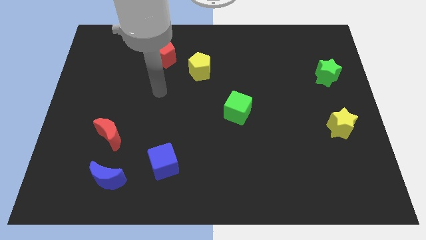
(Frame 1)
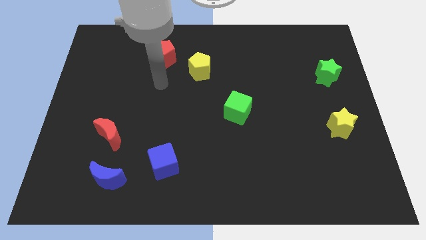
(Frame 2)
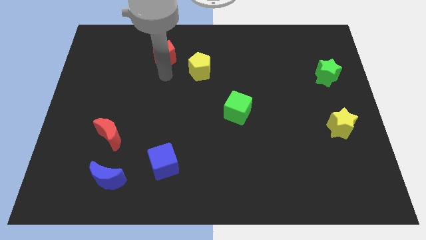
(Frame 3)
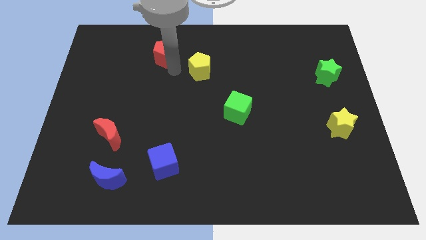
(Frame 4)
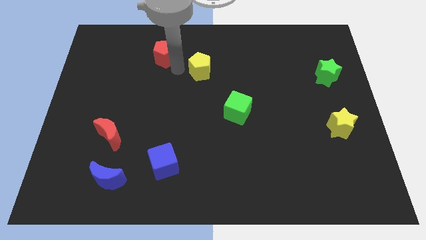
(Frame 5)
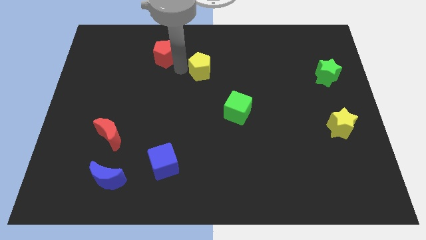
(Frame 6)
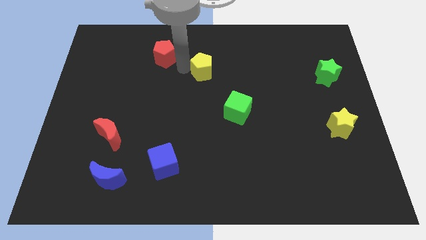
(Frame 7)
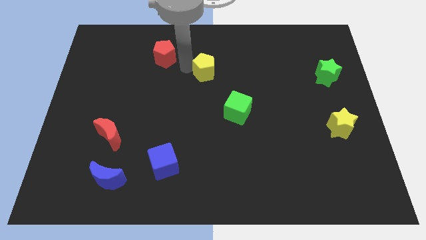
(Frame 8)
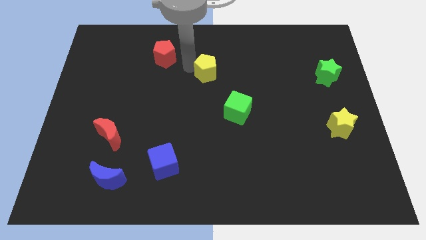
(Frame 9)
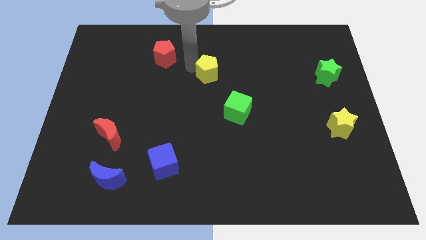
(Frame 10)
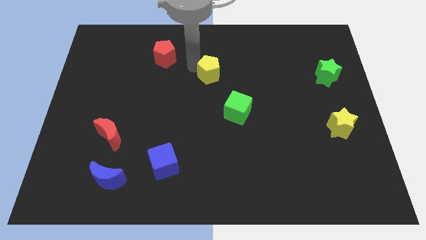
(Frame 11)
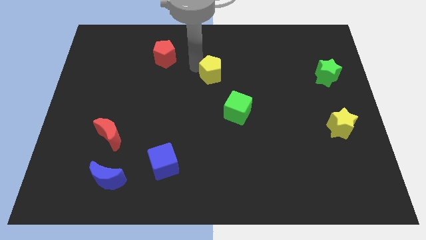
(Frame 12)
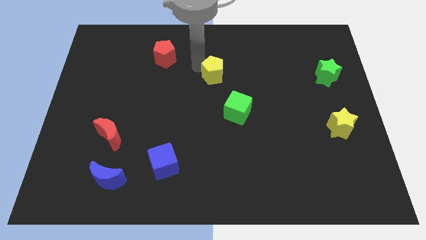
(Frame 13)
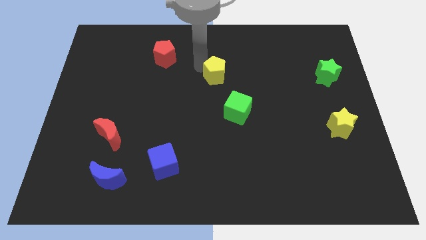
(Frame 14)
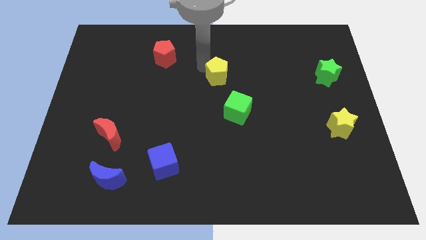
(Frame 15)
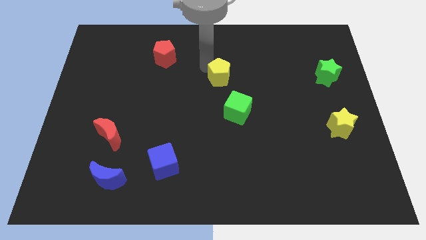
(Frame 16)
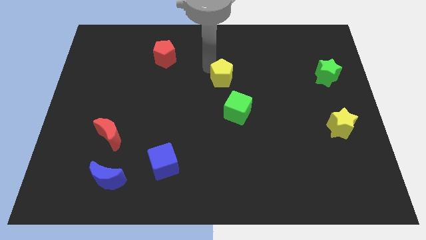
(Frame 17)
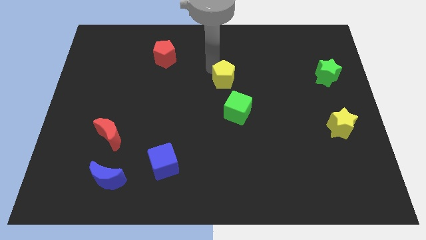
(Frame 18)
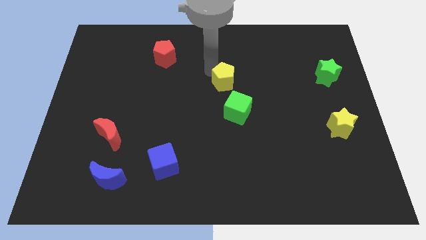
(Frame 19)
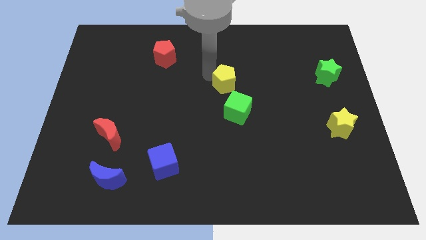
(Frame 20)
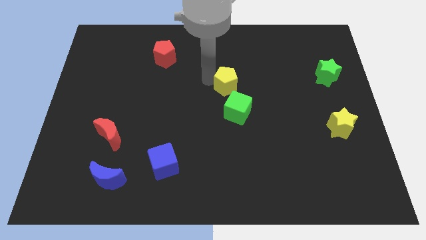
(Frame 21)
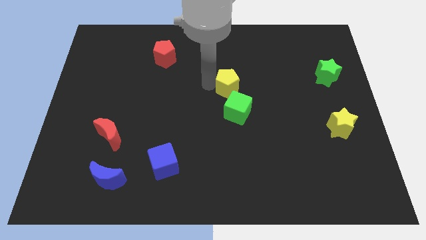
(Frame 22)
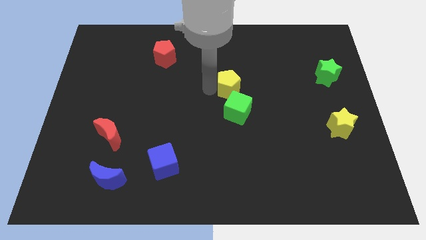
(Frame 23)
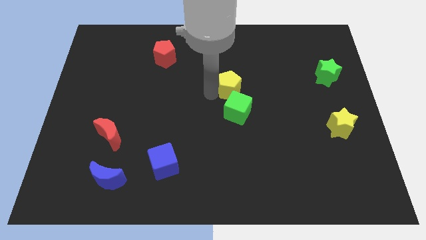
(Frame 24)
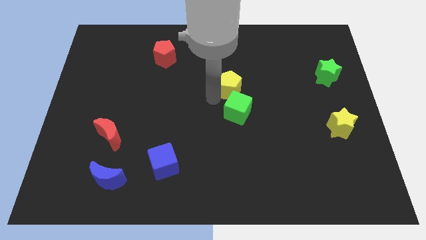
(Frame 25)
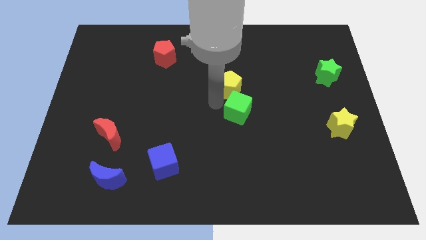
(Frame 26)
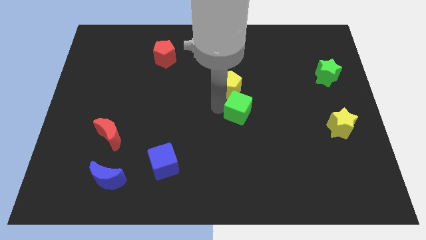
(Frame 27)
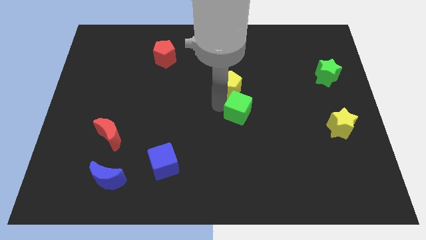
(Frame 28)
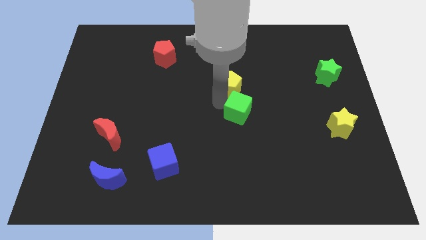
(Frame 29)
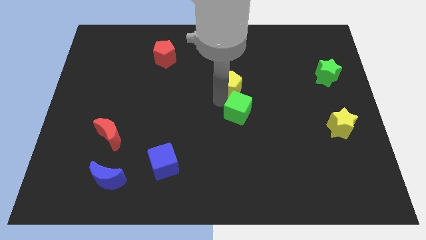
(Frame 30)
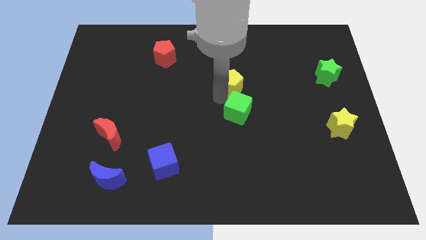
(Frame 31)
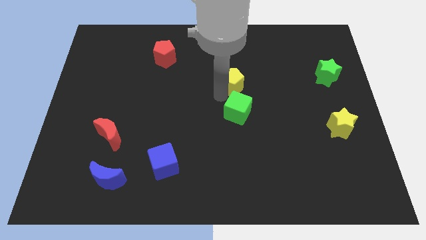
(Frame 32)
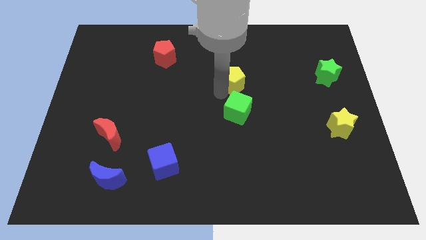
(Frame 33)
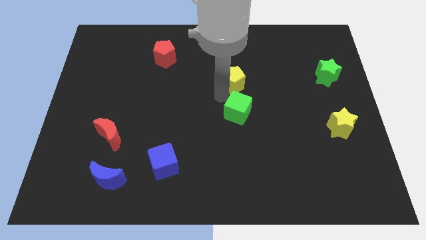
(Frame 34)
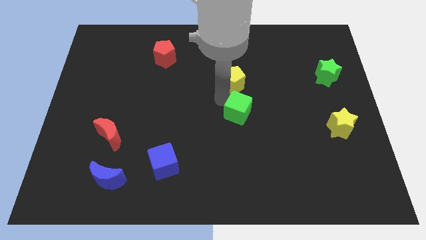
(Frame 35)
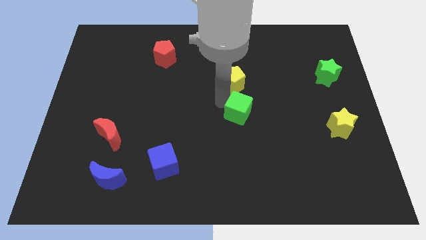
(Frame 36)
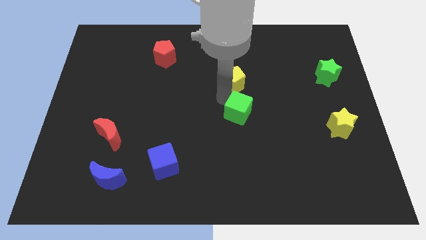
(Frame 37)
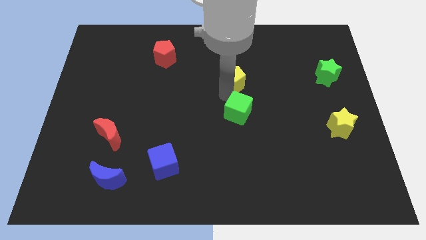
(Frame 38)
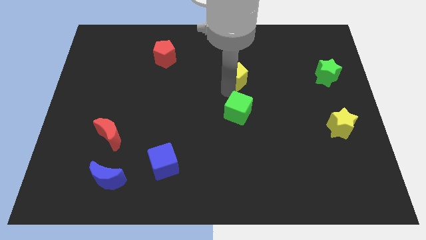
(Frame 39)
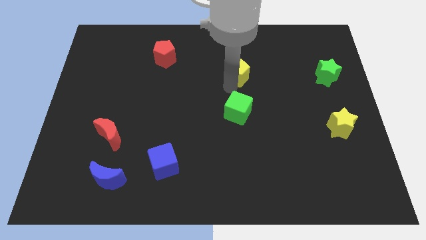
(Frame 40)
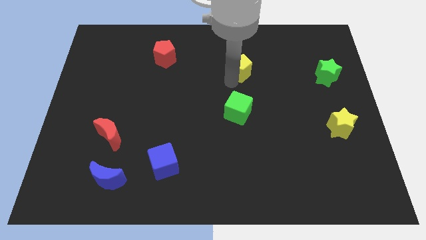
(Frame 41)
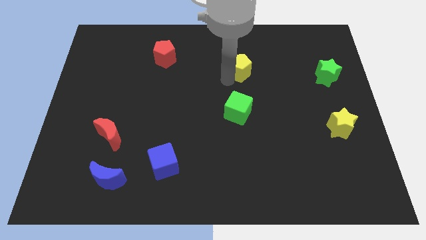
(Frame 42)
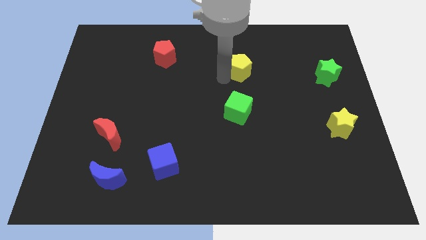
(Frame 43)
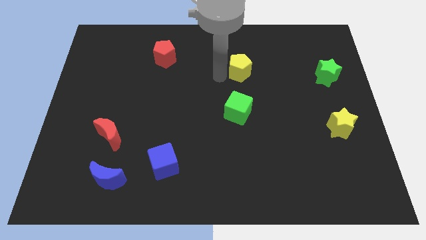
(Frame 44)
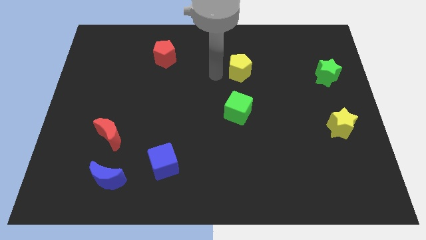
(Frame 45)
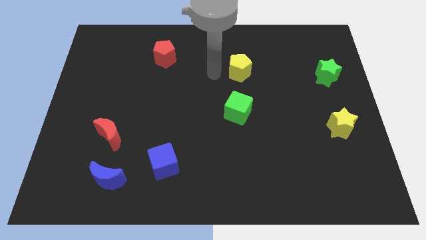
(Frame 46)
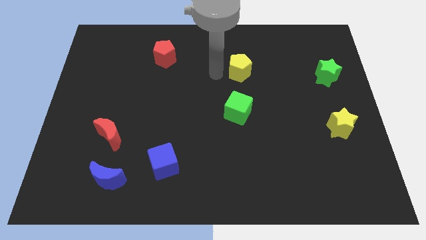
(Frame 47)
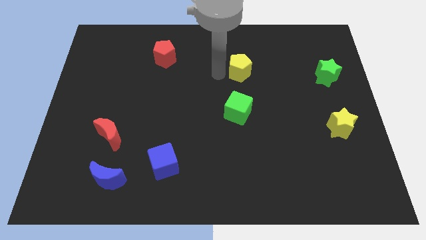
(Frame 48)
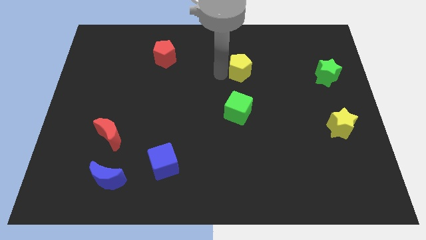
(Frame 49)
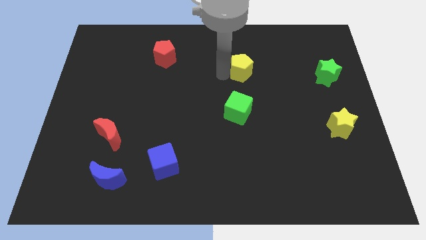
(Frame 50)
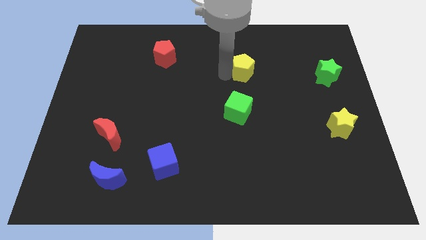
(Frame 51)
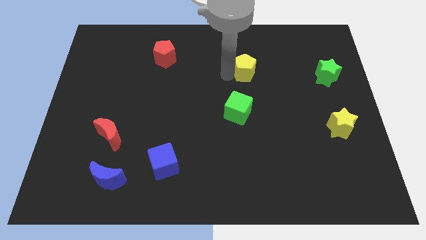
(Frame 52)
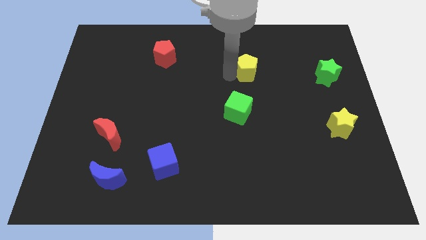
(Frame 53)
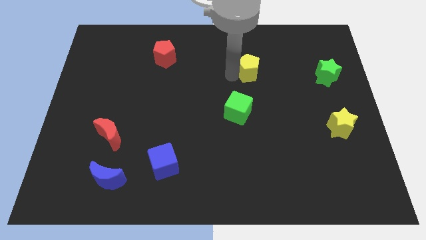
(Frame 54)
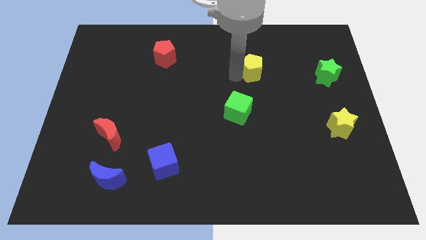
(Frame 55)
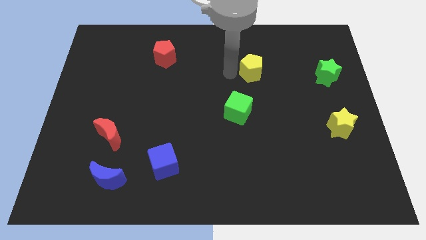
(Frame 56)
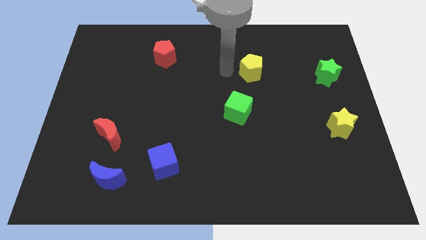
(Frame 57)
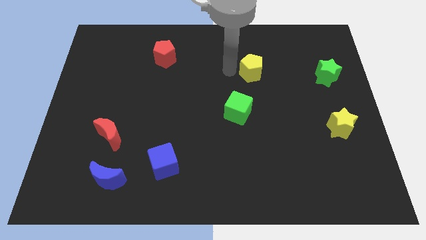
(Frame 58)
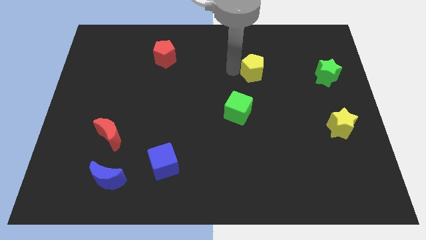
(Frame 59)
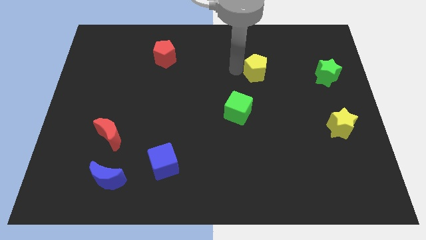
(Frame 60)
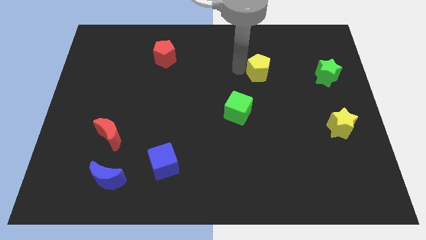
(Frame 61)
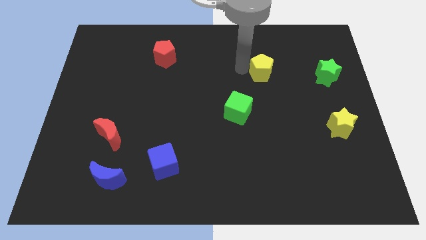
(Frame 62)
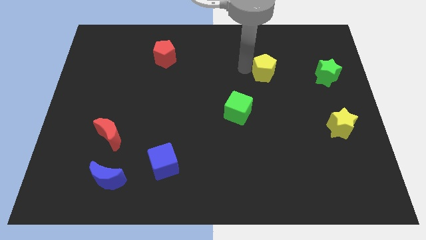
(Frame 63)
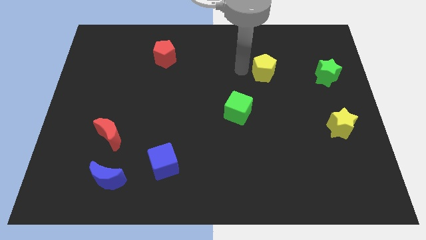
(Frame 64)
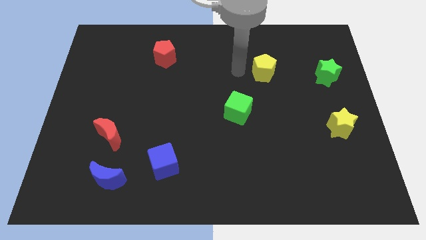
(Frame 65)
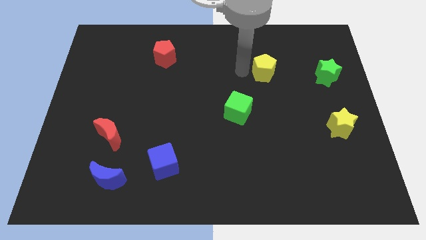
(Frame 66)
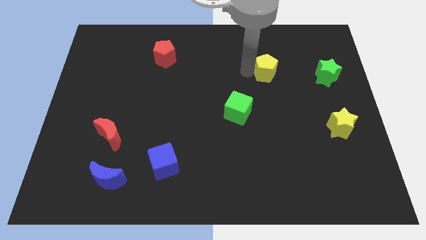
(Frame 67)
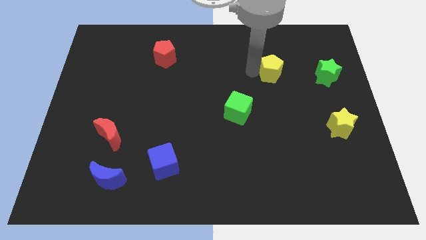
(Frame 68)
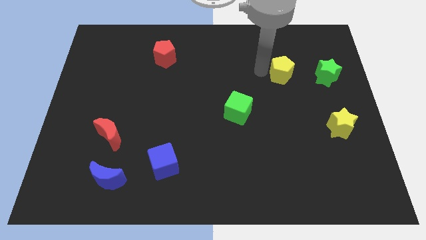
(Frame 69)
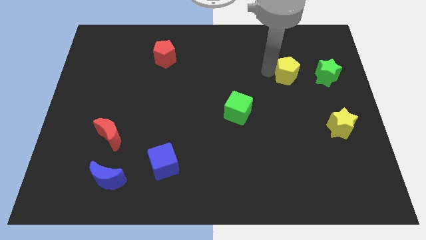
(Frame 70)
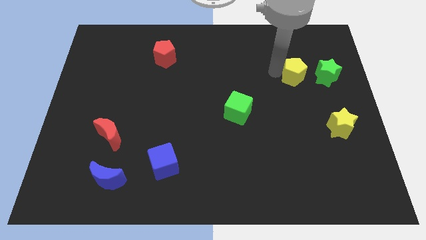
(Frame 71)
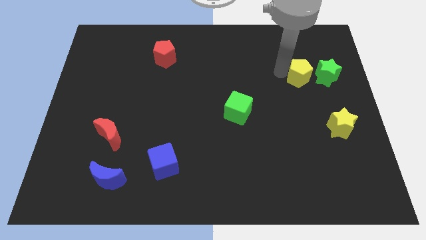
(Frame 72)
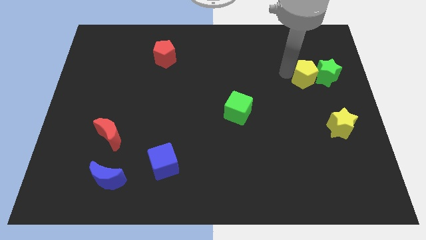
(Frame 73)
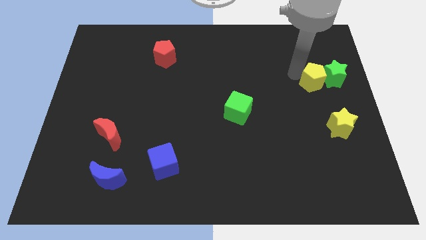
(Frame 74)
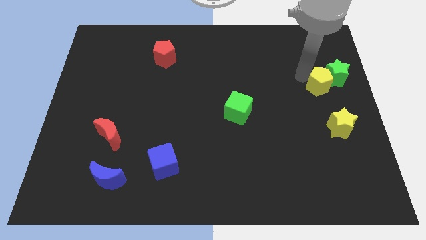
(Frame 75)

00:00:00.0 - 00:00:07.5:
slide the yellow pentagon to the top side of the yellow star
